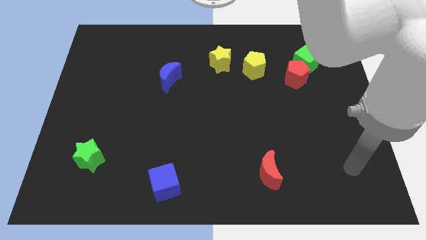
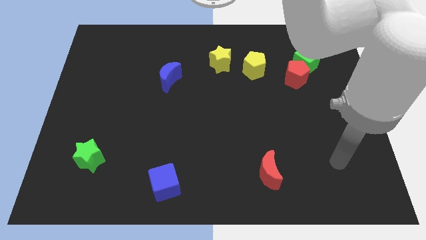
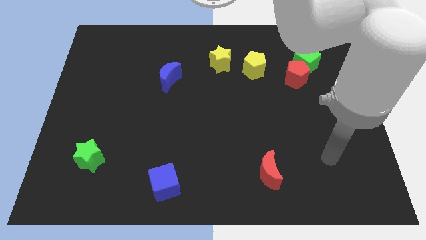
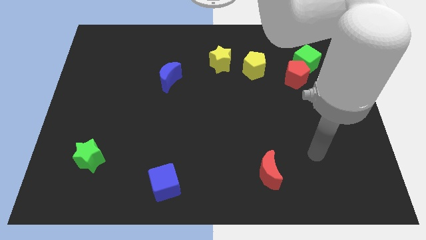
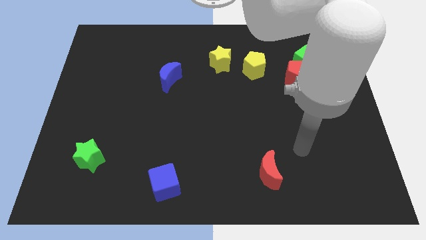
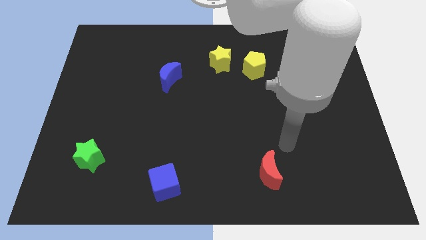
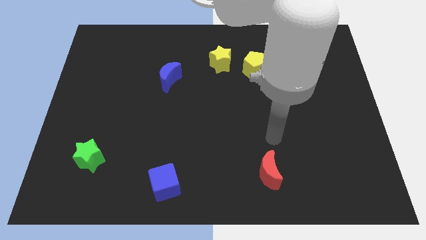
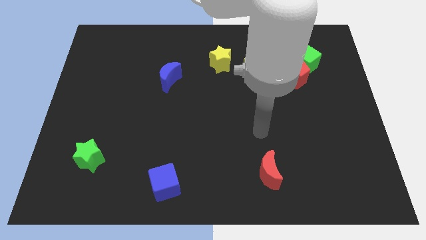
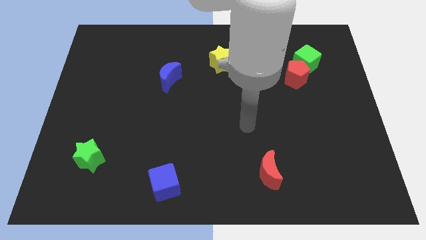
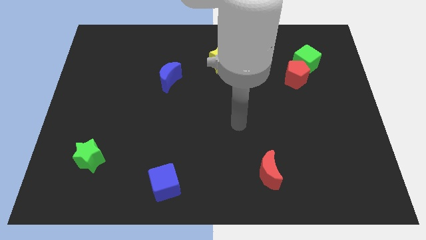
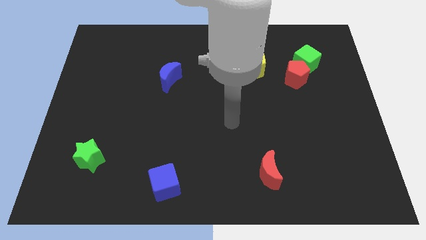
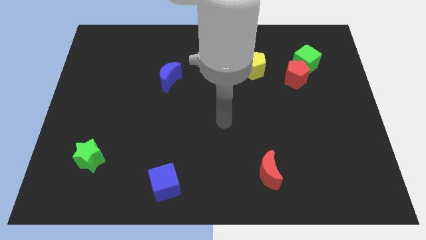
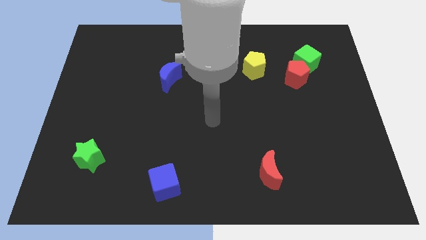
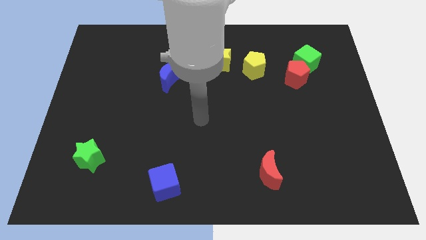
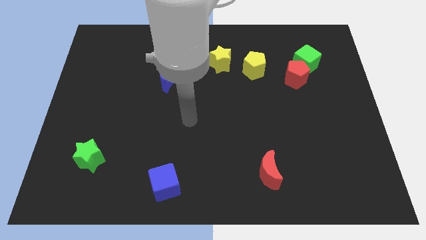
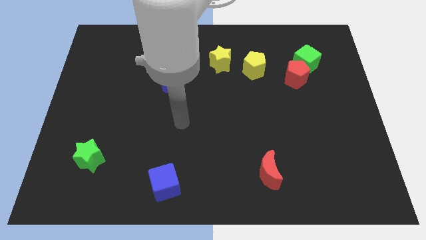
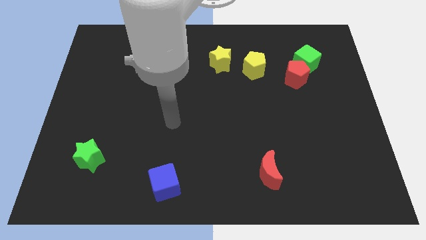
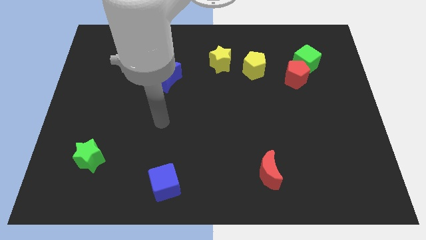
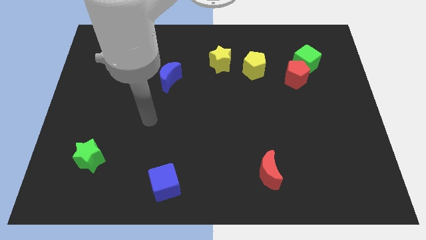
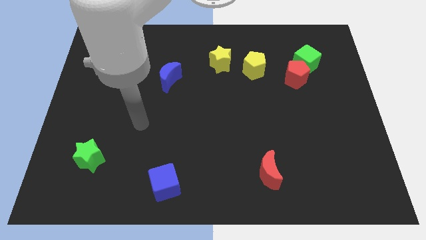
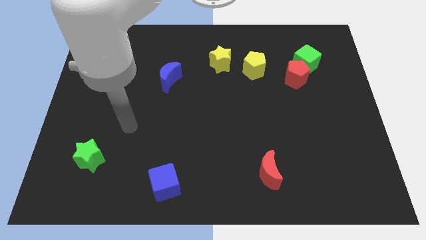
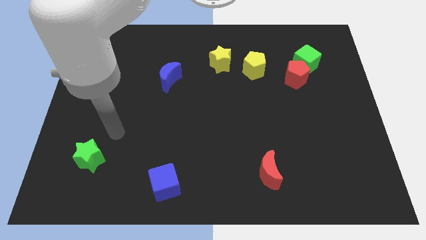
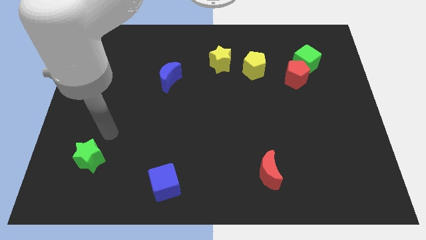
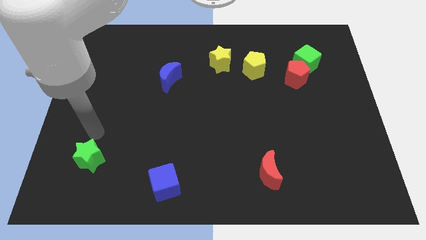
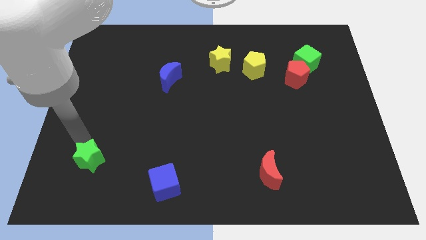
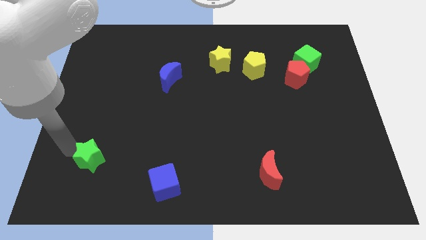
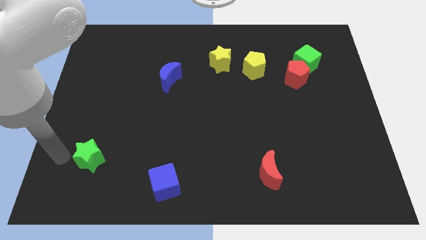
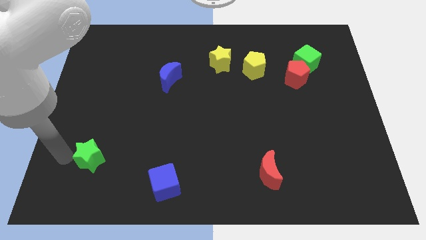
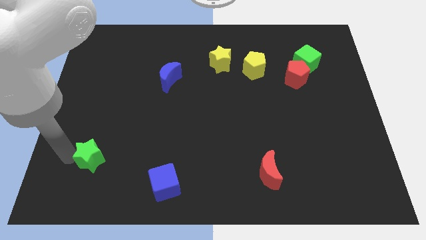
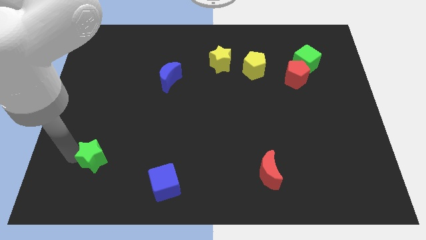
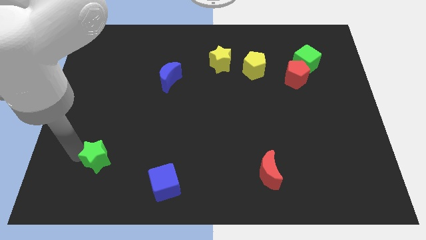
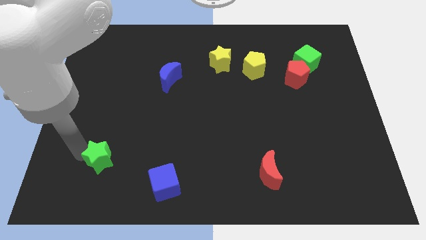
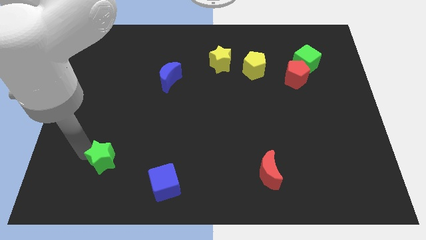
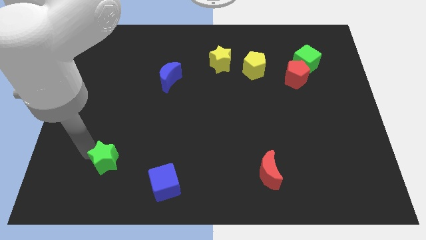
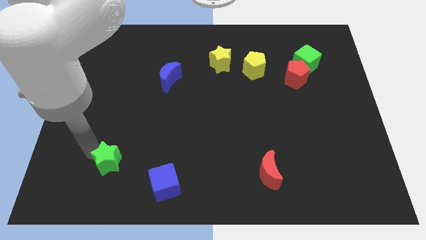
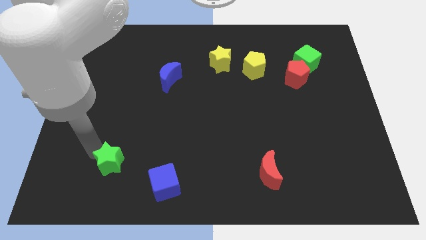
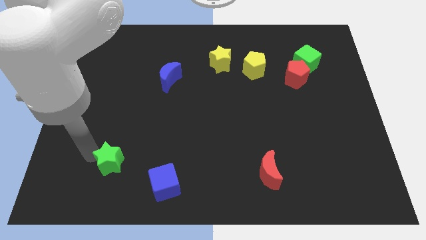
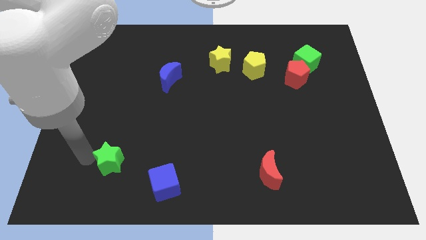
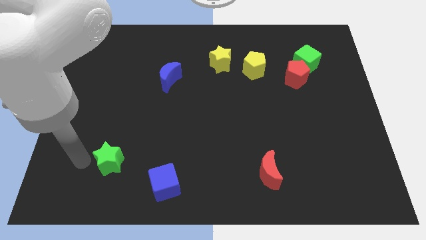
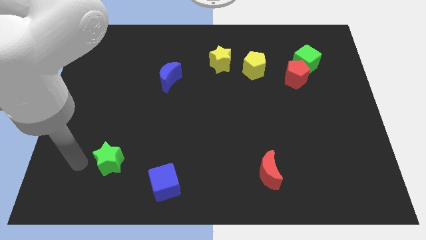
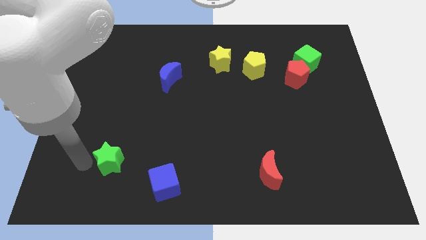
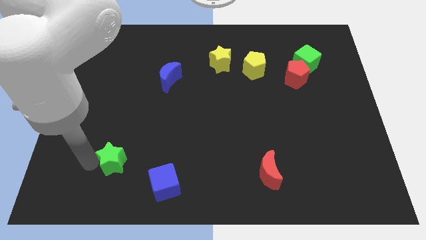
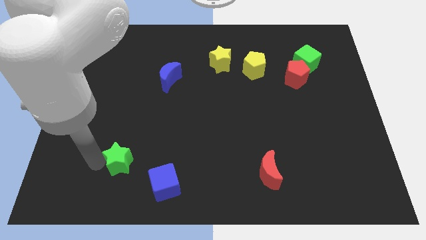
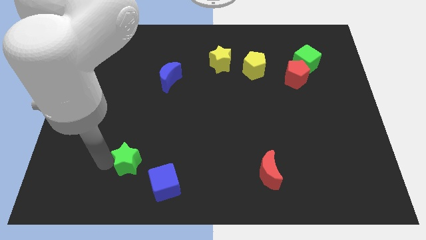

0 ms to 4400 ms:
slightly move the green star to the right

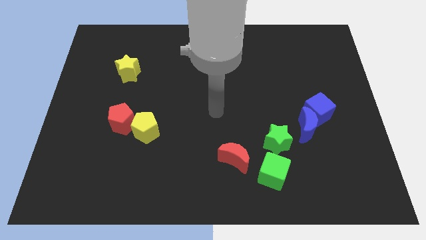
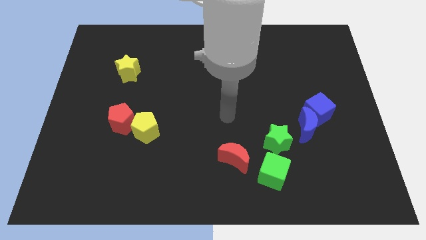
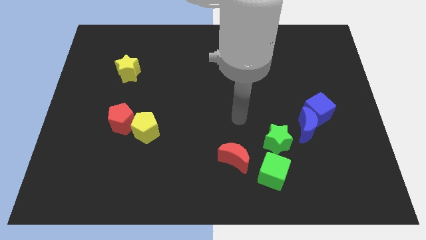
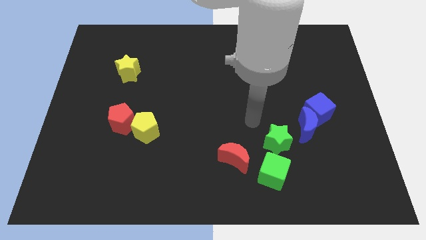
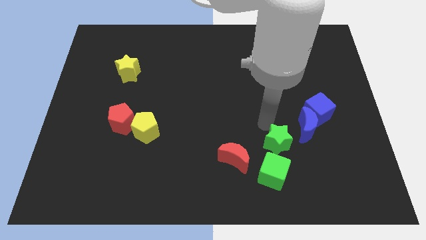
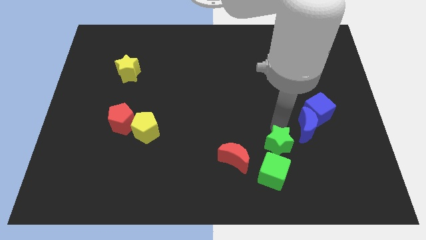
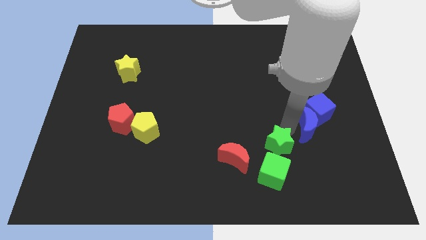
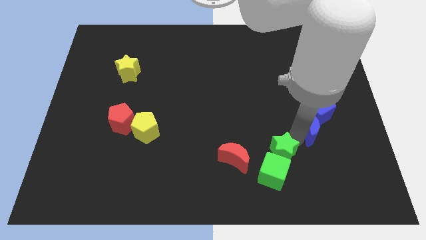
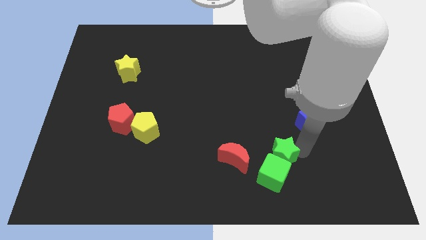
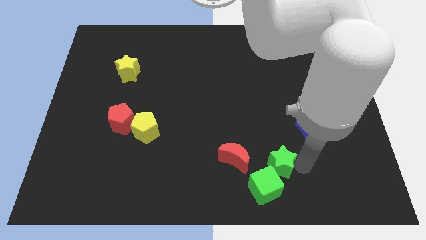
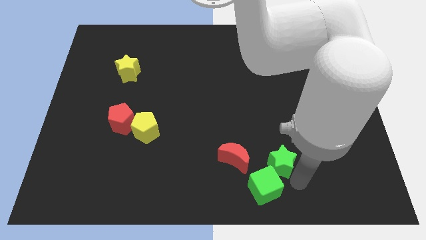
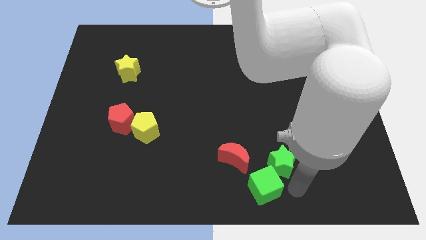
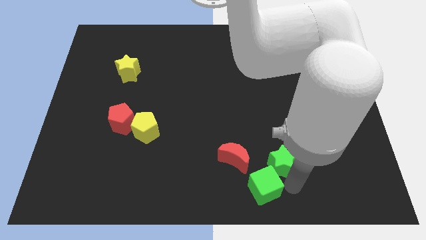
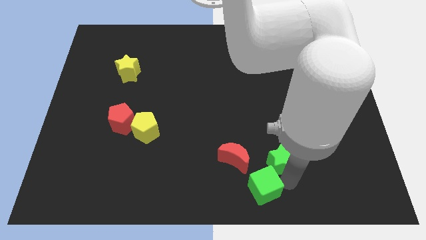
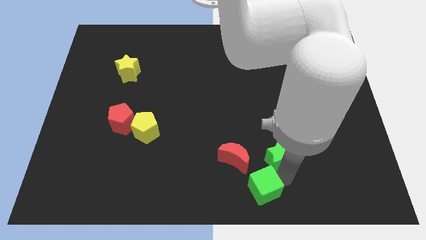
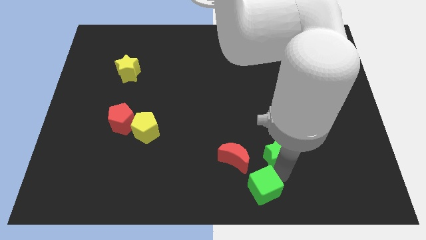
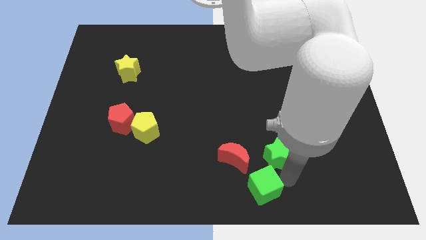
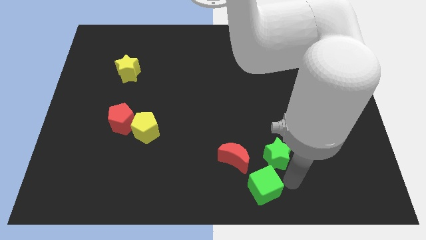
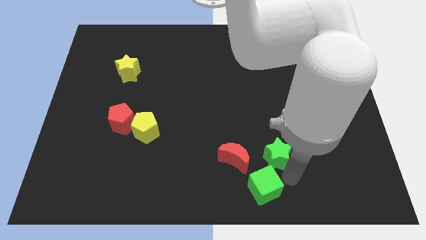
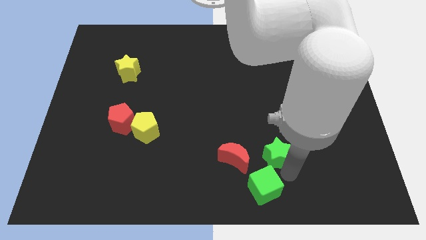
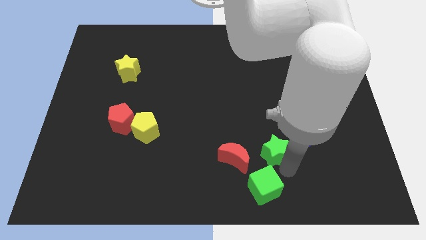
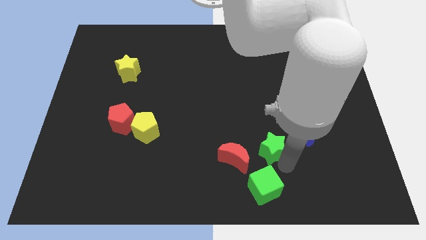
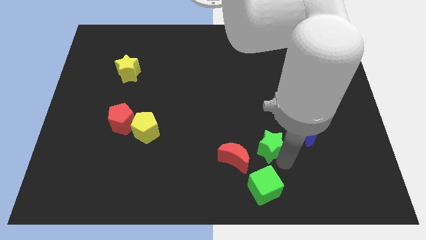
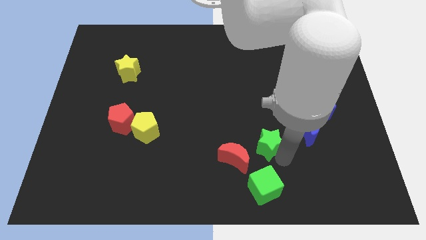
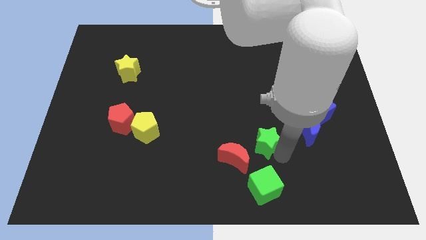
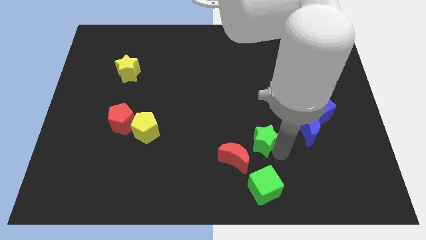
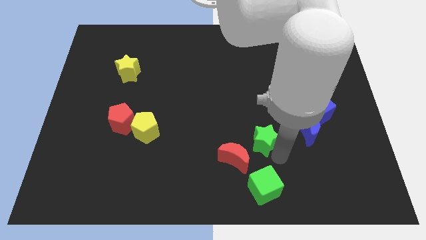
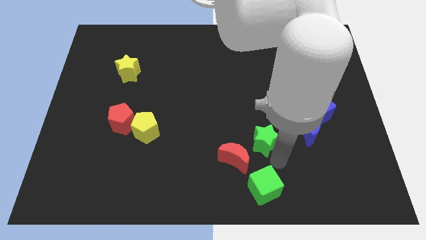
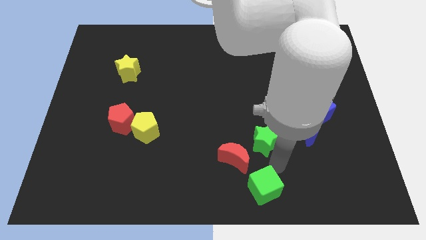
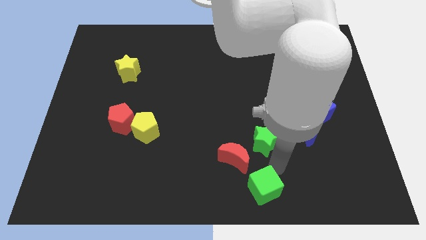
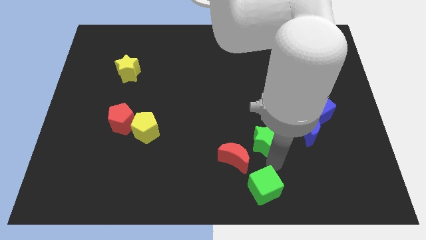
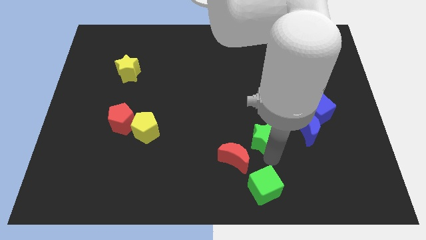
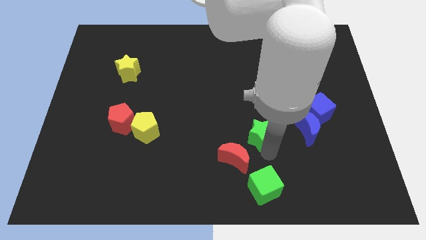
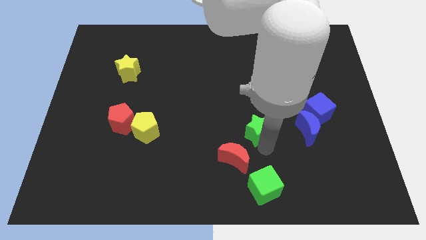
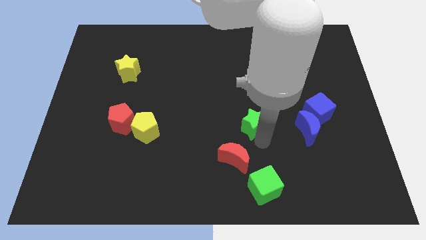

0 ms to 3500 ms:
push the green star diagonally upwards and to the left somewhat

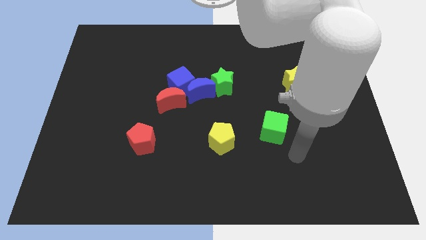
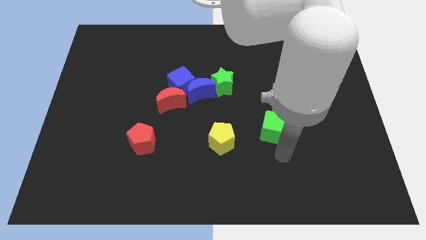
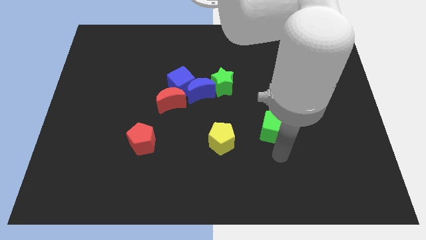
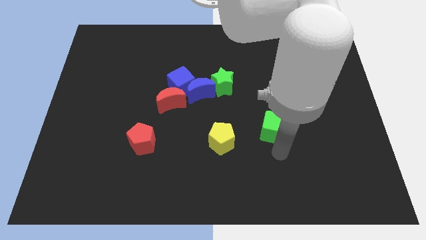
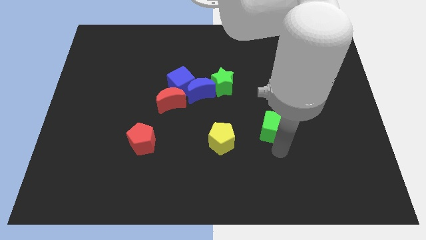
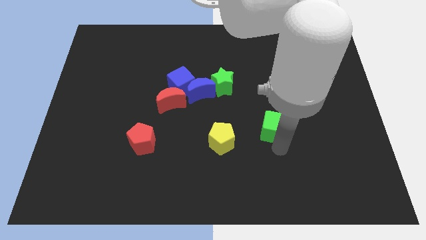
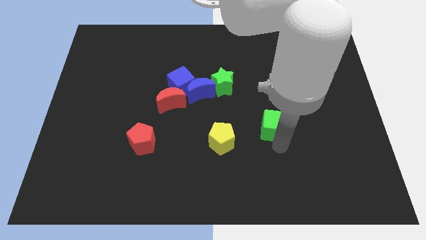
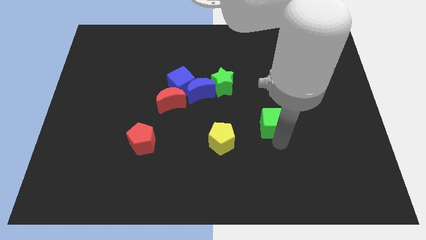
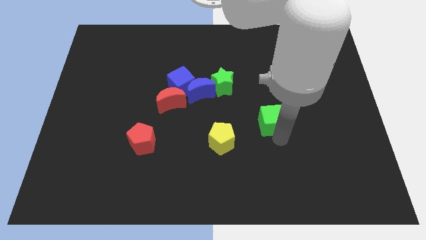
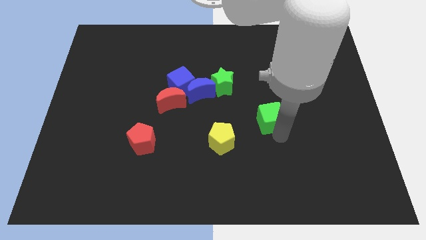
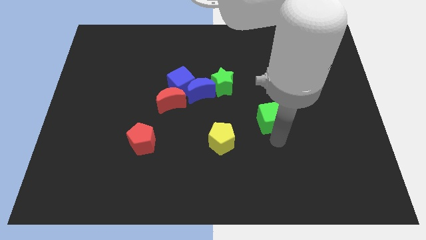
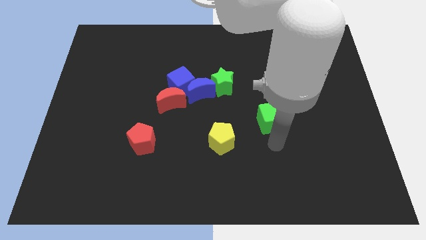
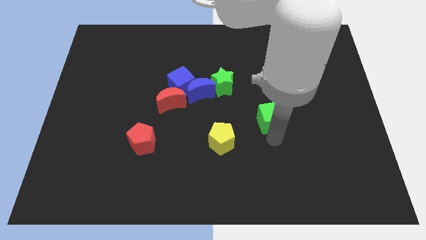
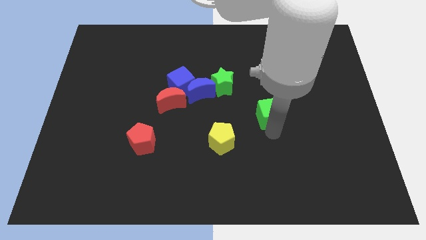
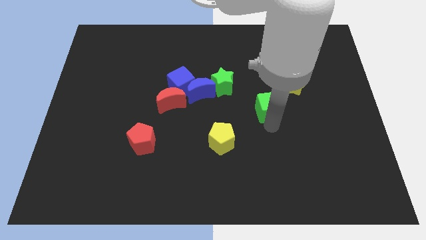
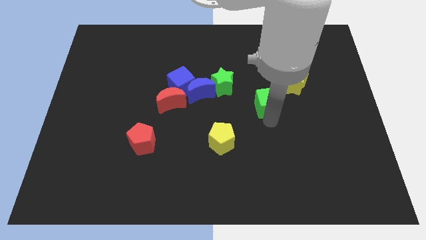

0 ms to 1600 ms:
slightly slide the green cube up
